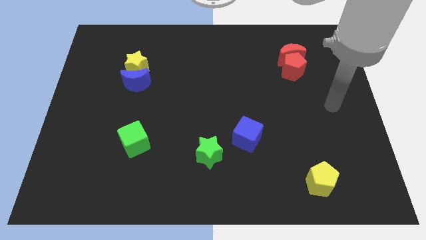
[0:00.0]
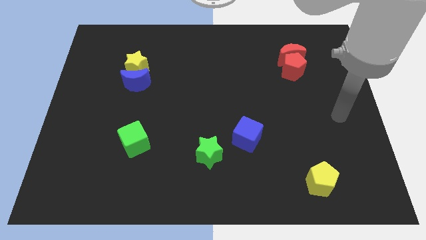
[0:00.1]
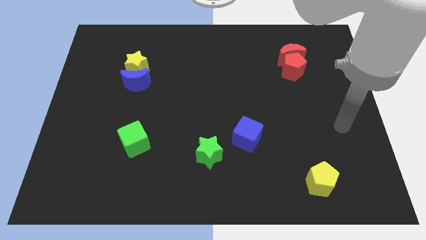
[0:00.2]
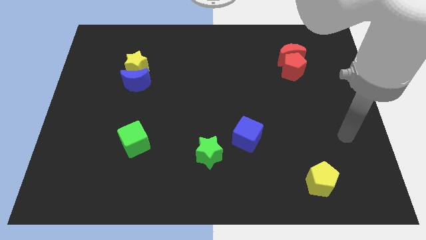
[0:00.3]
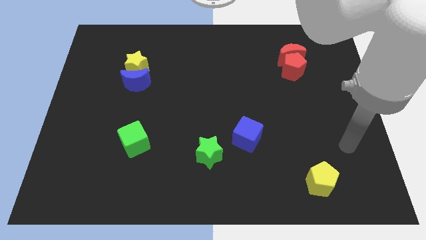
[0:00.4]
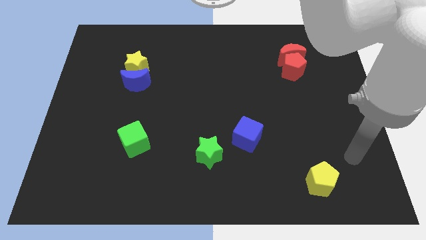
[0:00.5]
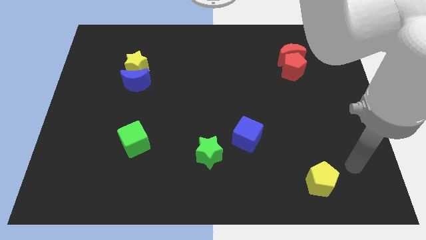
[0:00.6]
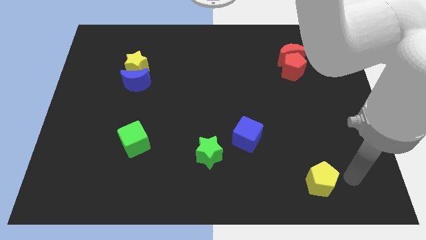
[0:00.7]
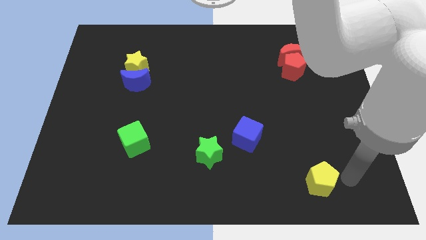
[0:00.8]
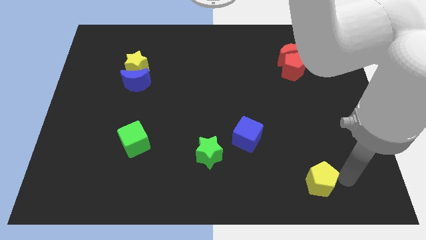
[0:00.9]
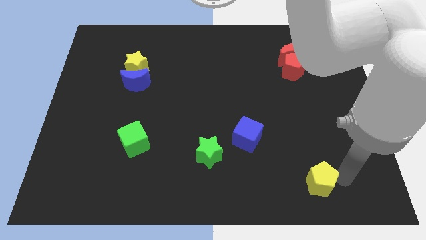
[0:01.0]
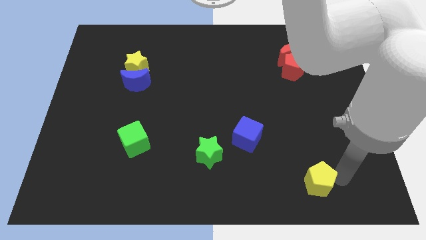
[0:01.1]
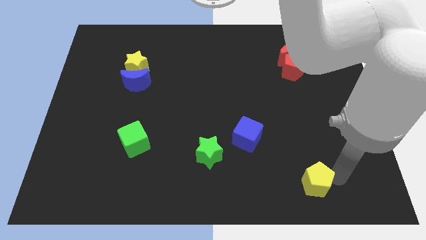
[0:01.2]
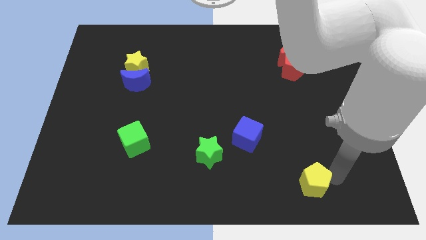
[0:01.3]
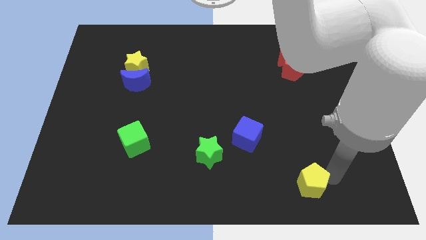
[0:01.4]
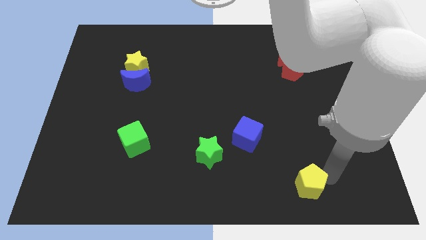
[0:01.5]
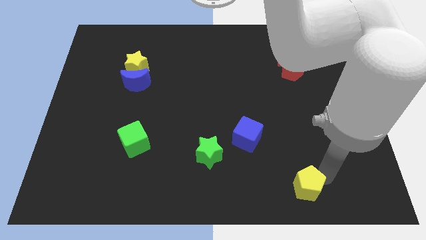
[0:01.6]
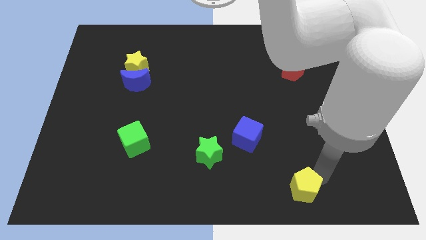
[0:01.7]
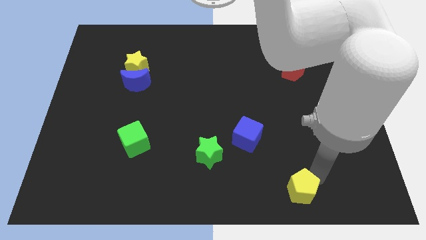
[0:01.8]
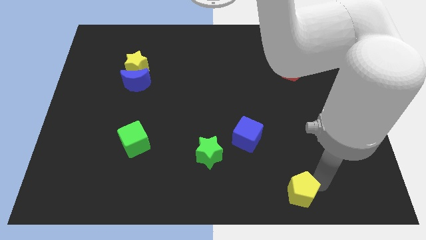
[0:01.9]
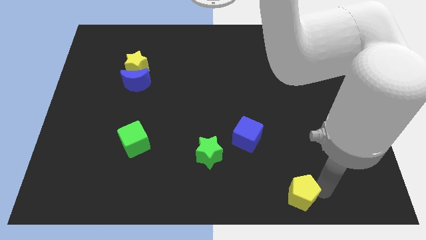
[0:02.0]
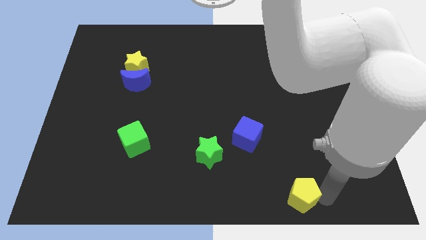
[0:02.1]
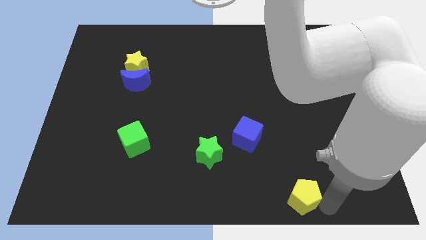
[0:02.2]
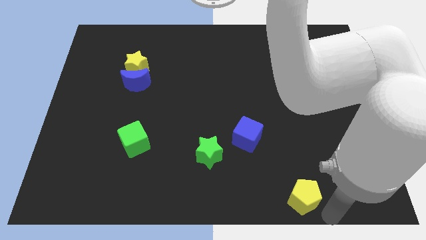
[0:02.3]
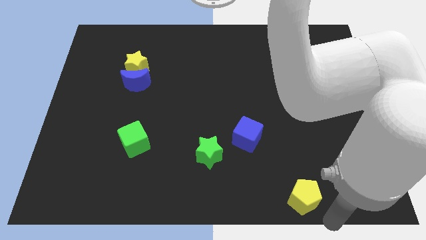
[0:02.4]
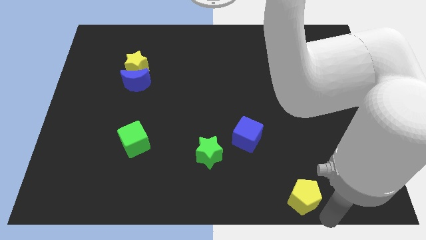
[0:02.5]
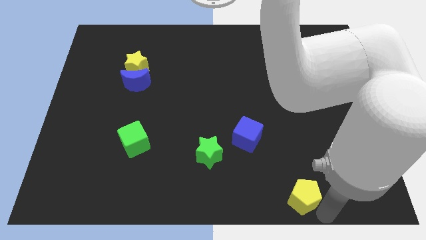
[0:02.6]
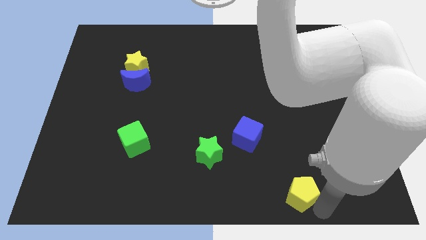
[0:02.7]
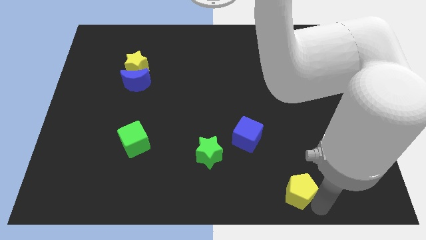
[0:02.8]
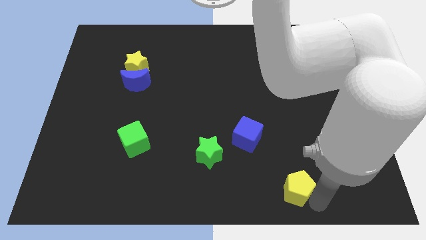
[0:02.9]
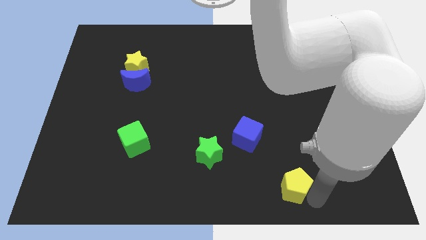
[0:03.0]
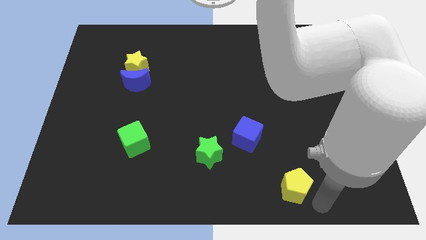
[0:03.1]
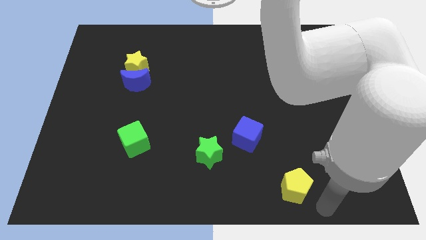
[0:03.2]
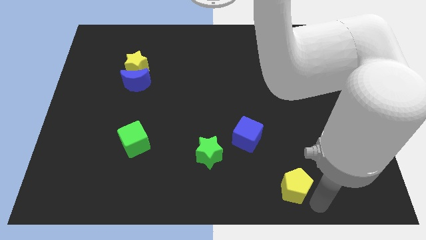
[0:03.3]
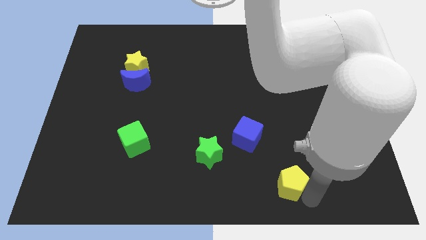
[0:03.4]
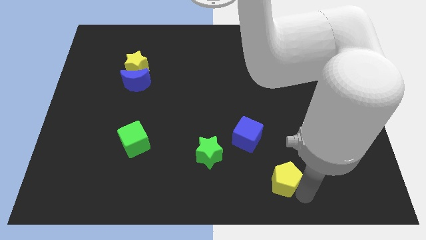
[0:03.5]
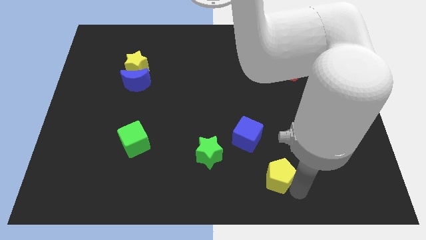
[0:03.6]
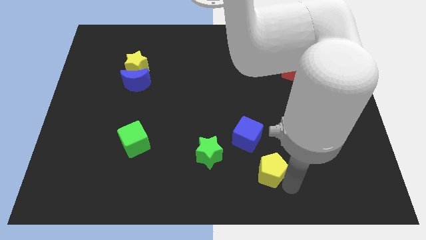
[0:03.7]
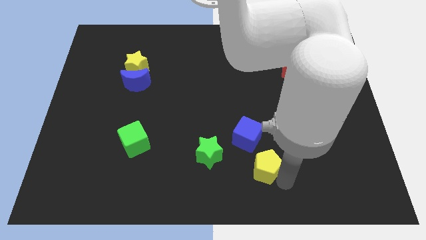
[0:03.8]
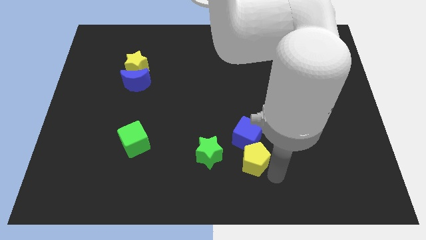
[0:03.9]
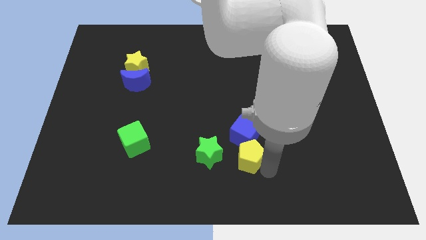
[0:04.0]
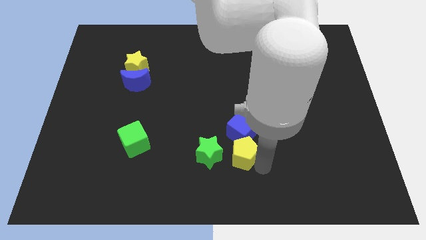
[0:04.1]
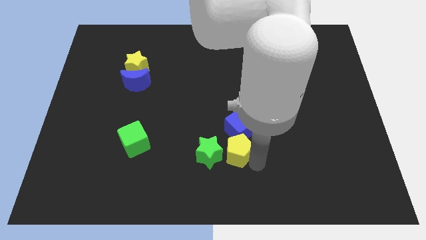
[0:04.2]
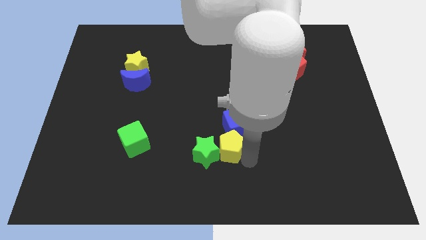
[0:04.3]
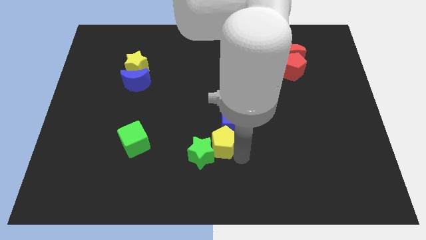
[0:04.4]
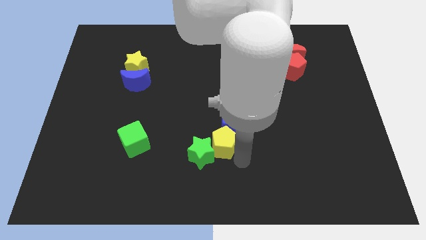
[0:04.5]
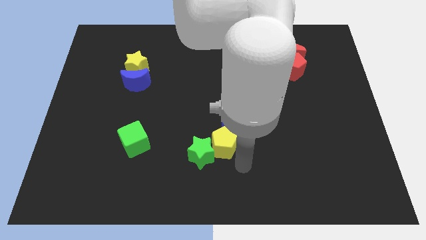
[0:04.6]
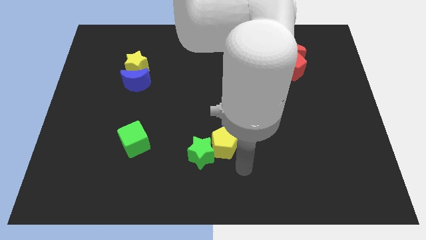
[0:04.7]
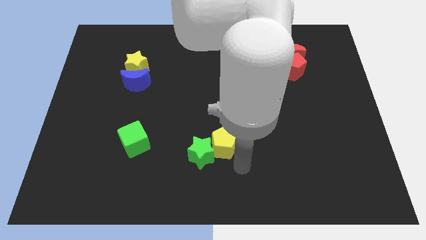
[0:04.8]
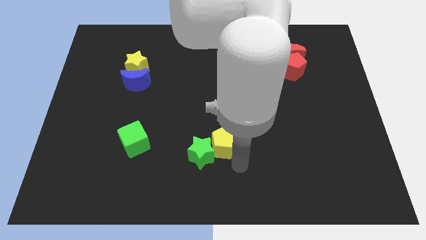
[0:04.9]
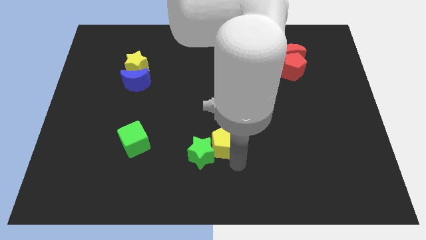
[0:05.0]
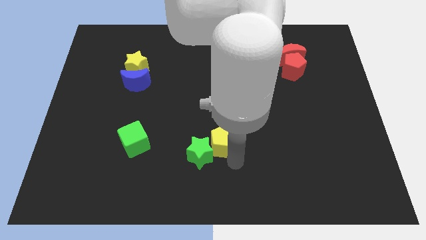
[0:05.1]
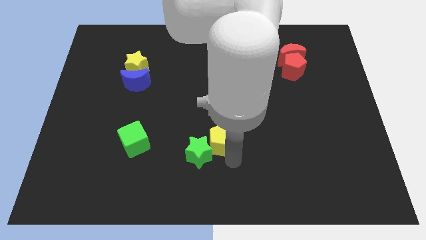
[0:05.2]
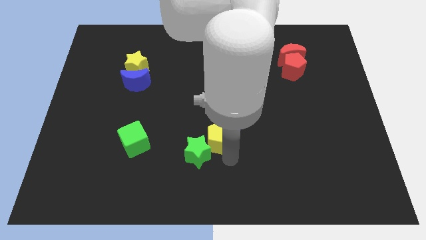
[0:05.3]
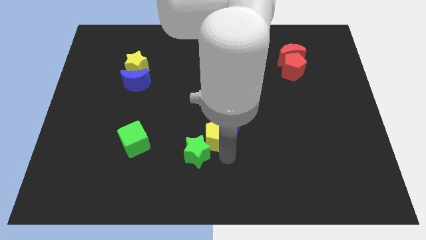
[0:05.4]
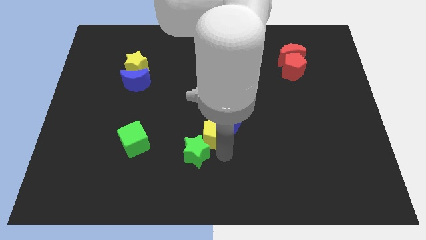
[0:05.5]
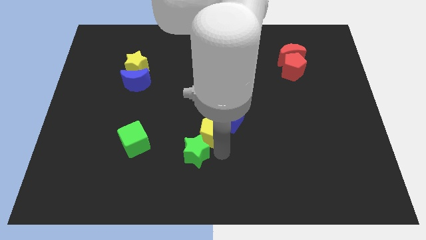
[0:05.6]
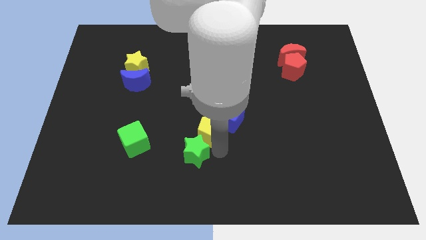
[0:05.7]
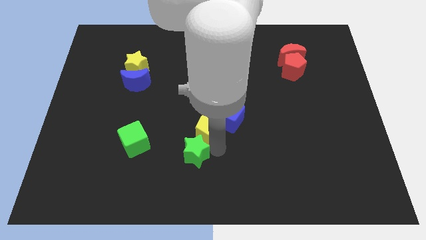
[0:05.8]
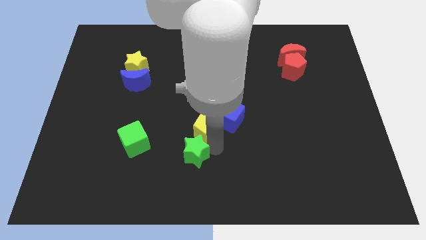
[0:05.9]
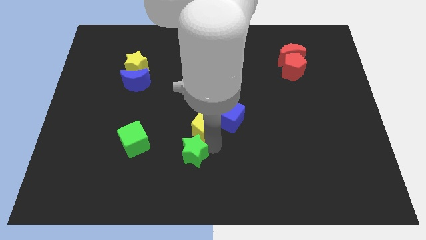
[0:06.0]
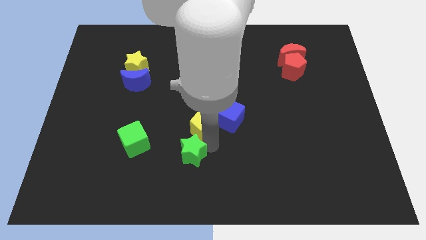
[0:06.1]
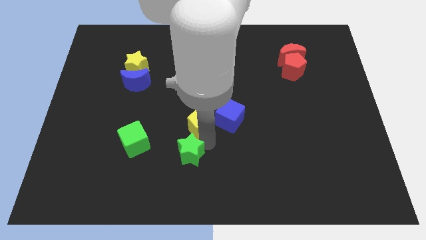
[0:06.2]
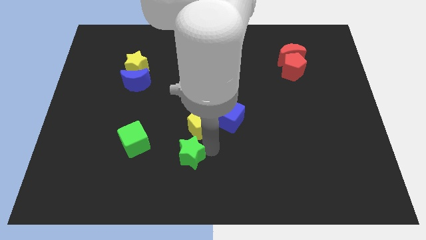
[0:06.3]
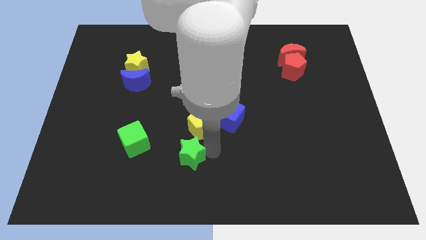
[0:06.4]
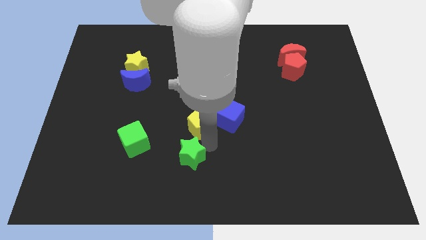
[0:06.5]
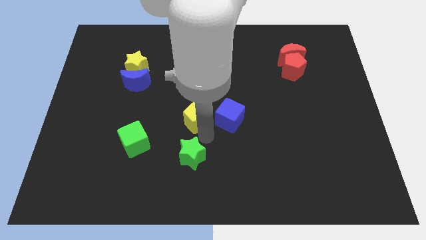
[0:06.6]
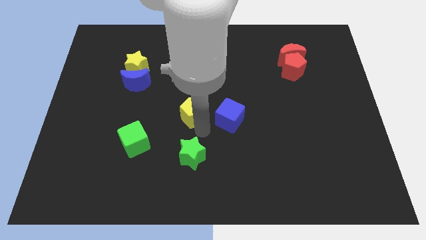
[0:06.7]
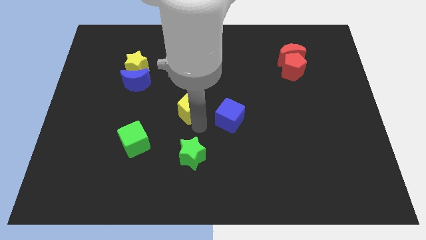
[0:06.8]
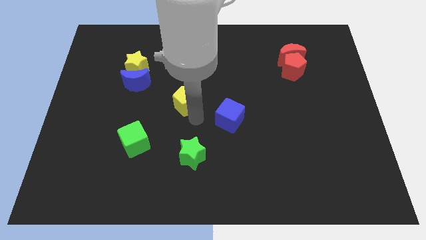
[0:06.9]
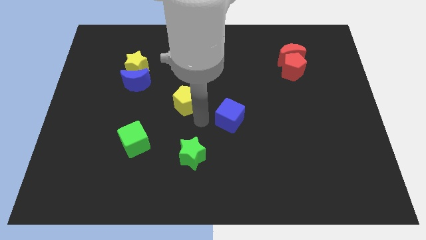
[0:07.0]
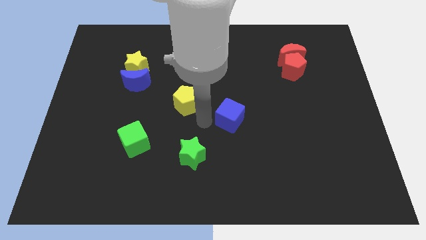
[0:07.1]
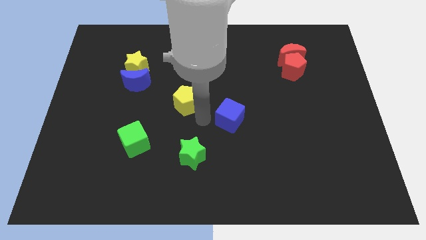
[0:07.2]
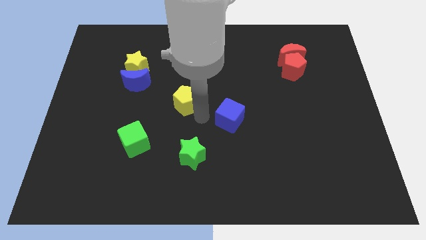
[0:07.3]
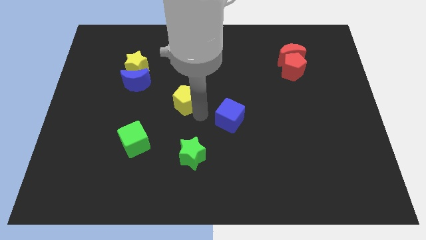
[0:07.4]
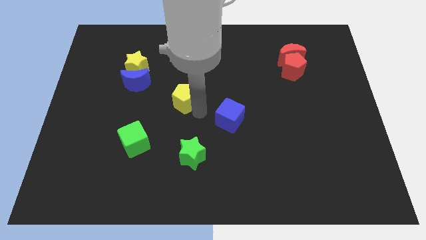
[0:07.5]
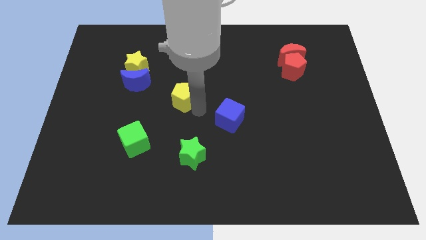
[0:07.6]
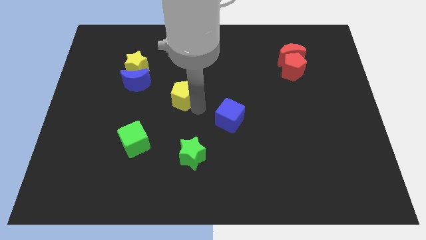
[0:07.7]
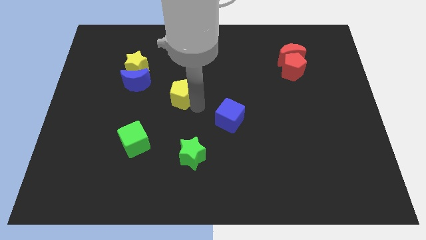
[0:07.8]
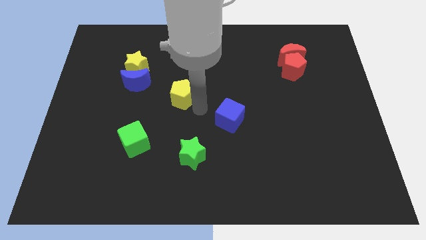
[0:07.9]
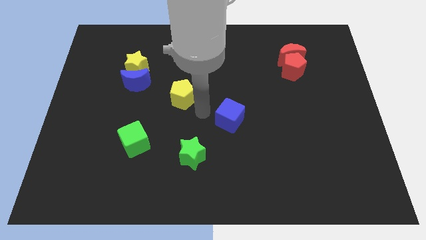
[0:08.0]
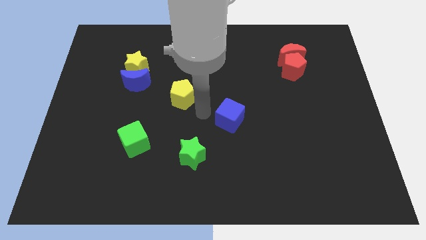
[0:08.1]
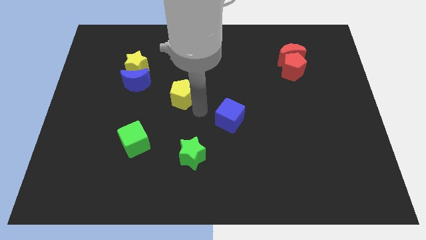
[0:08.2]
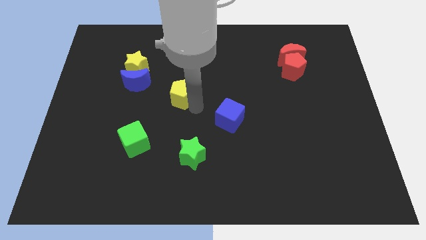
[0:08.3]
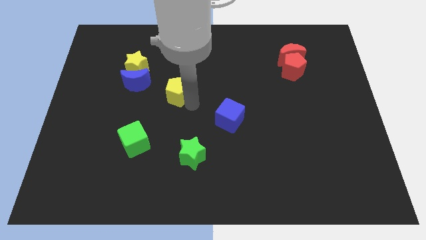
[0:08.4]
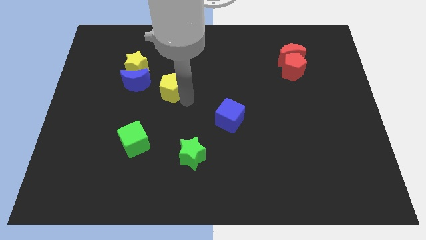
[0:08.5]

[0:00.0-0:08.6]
put the yellow pentagon diagonally down and to the right of the yellow star
